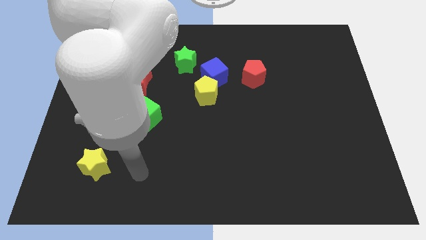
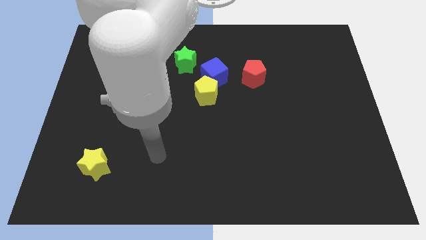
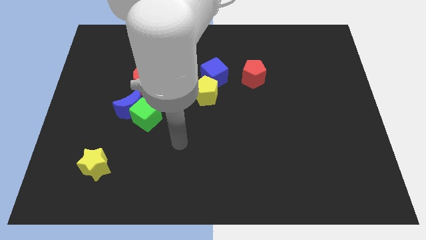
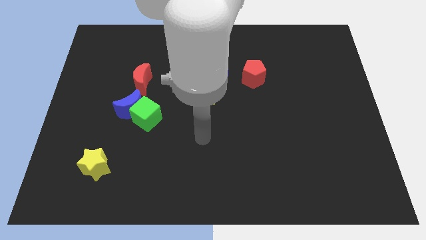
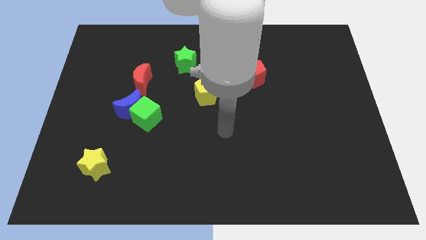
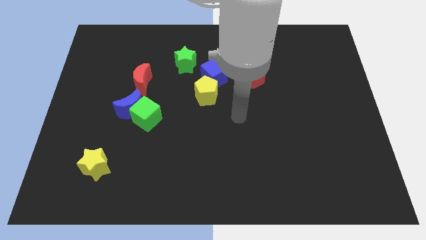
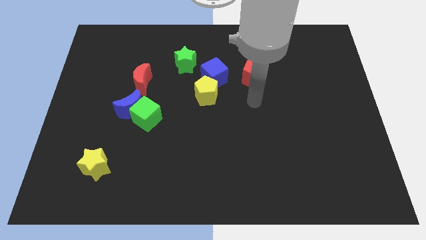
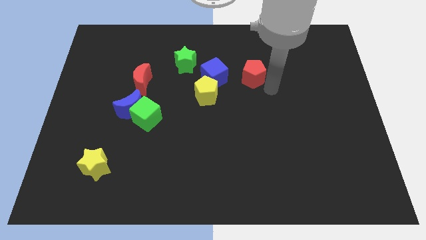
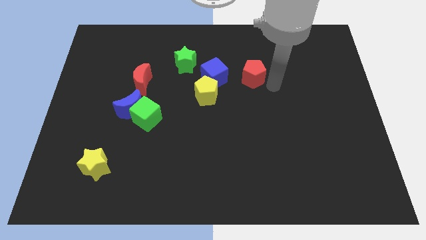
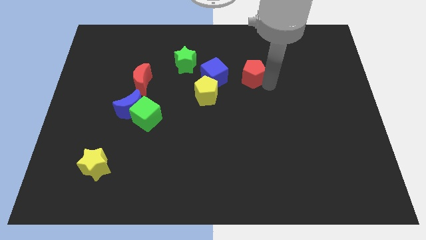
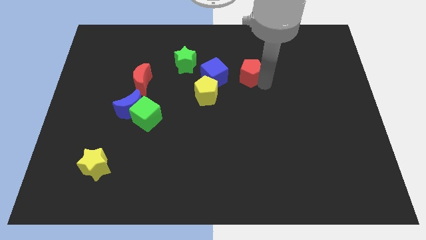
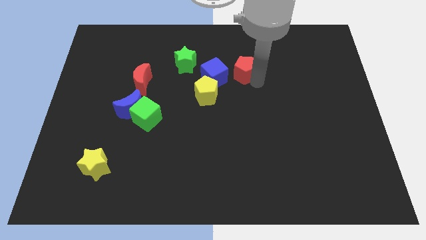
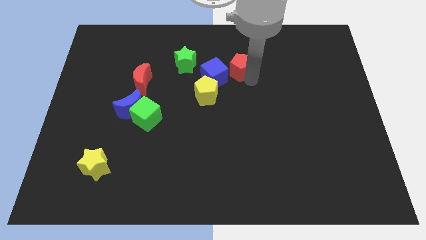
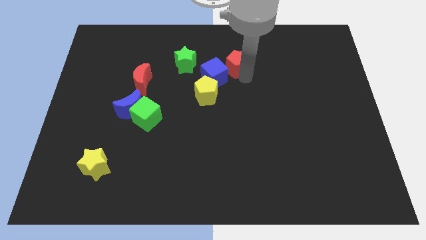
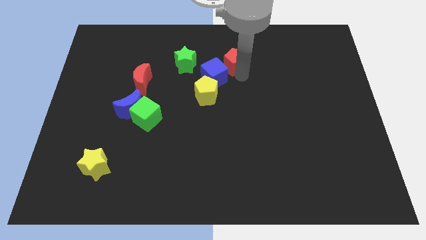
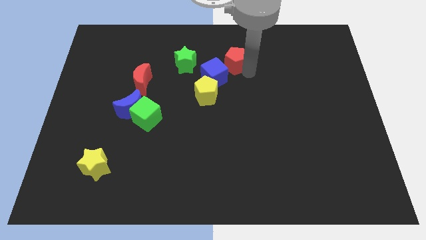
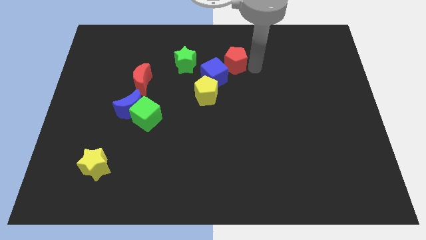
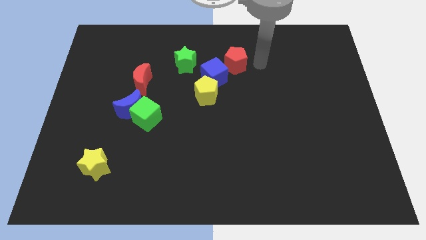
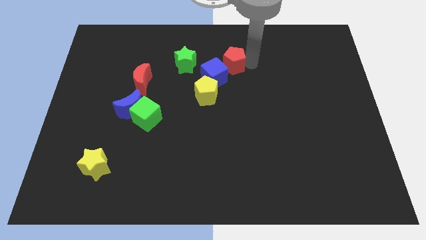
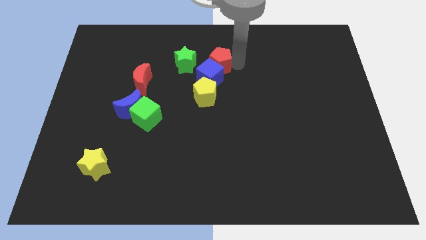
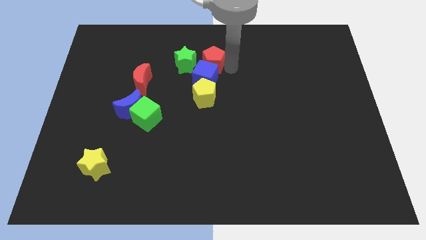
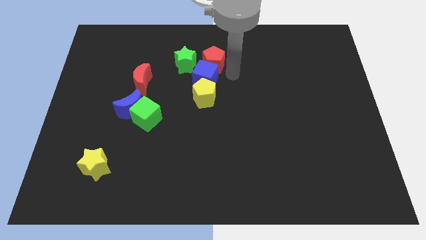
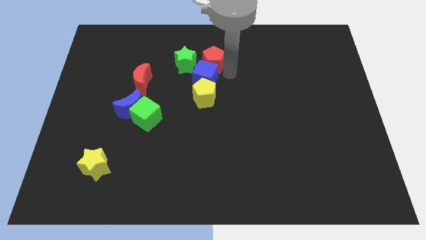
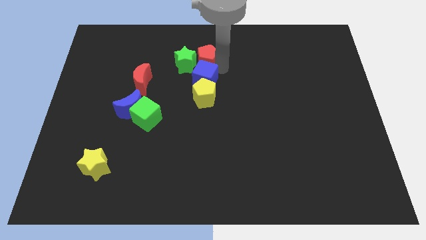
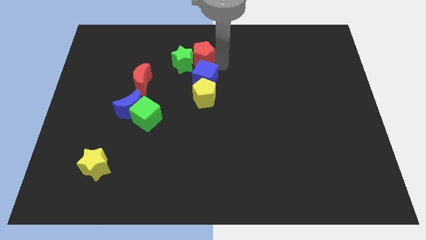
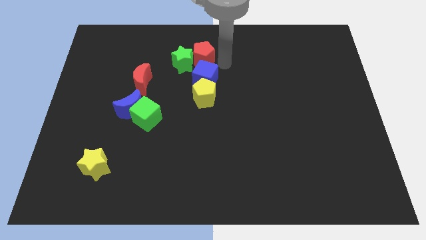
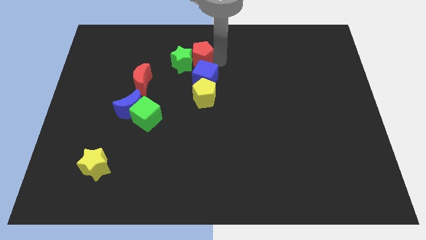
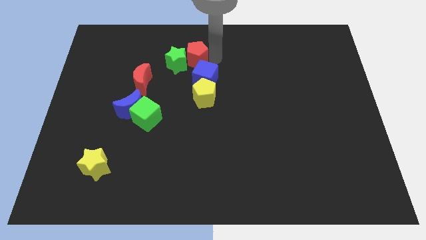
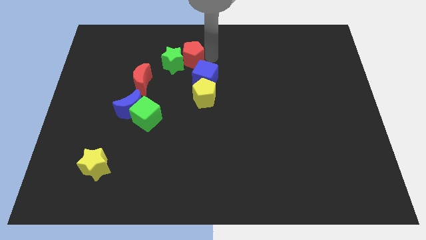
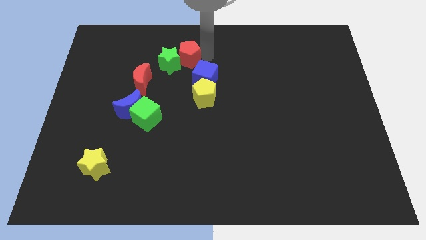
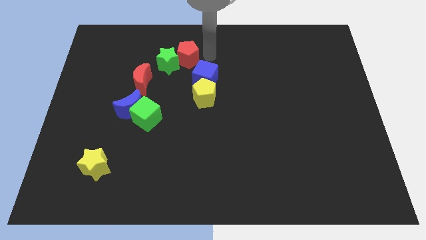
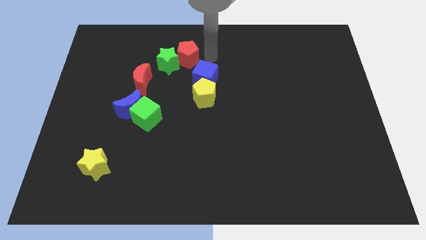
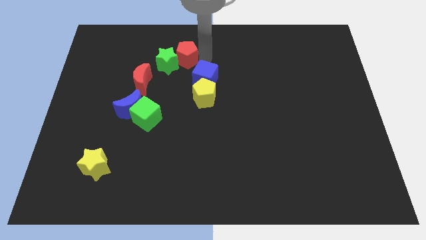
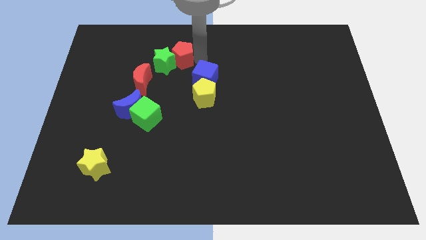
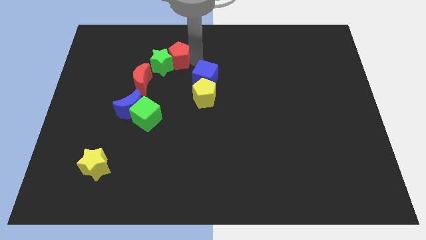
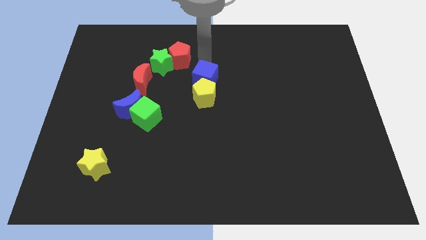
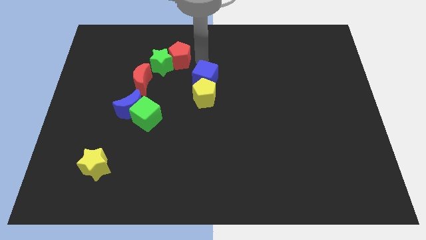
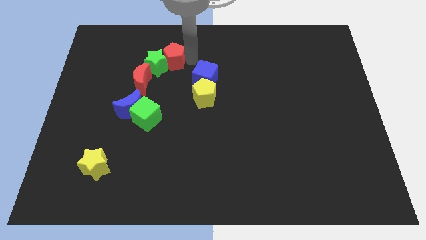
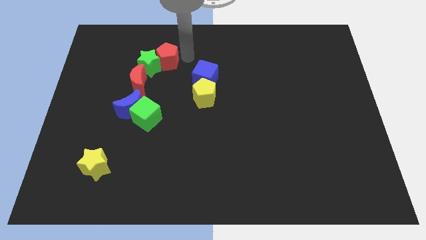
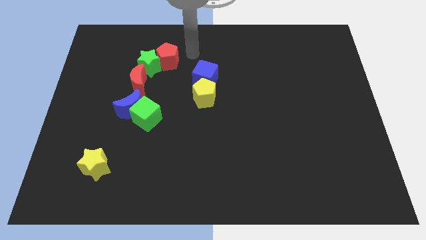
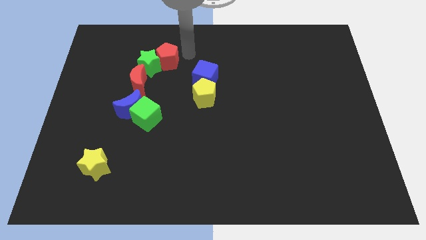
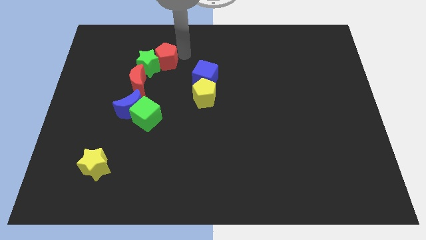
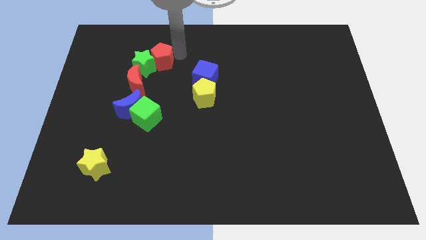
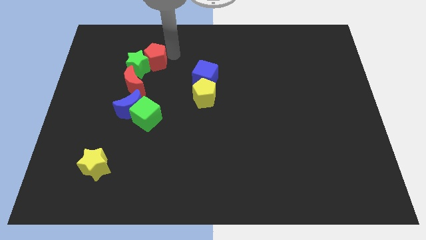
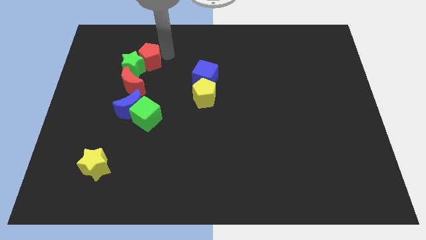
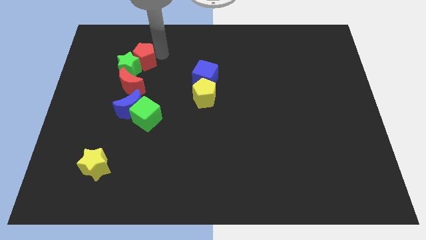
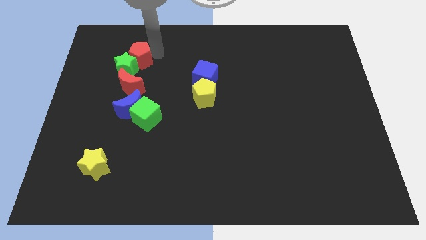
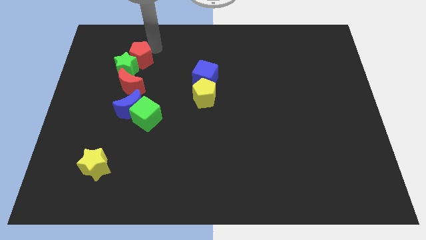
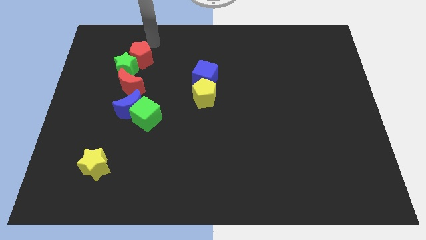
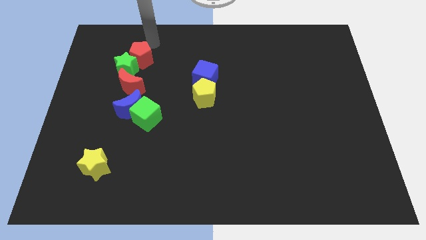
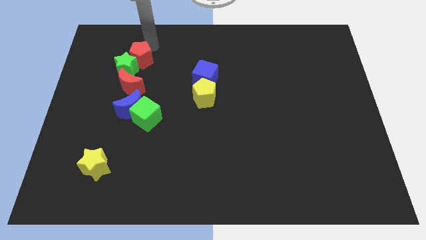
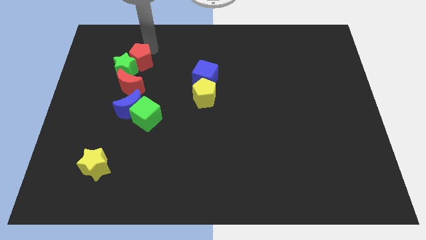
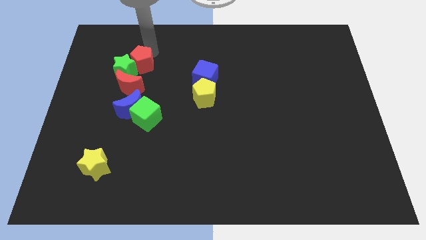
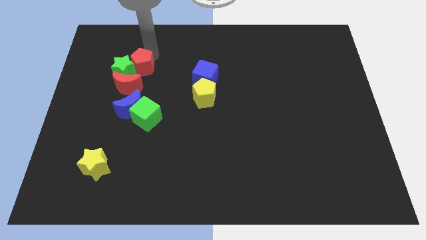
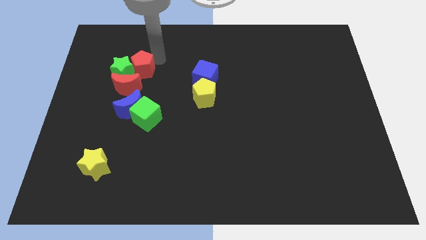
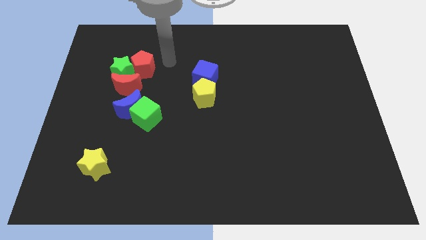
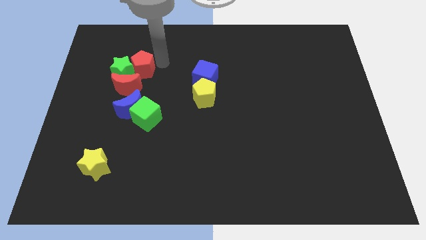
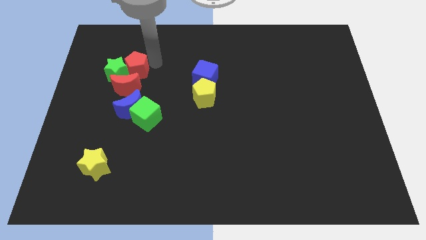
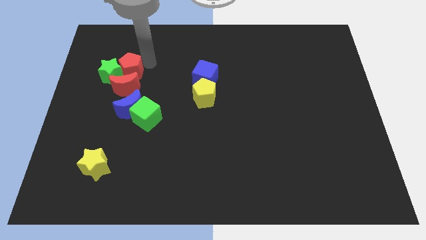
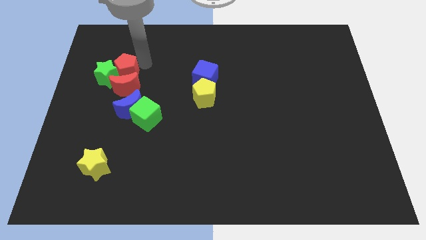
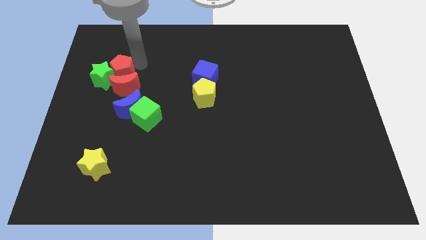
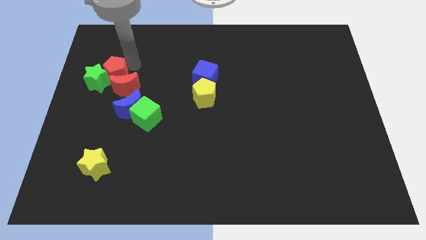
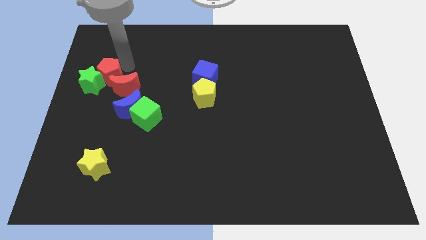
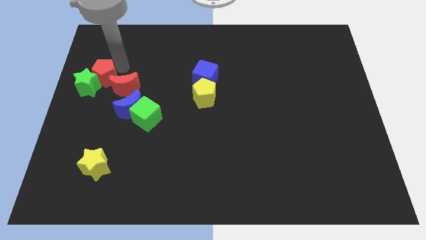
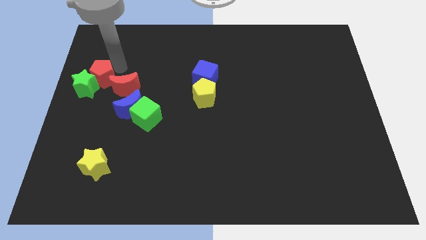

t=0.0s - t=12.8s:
put the red pentagon to the center left

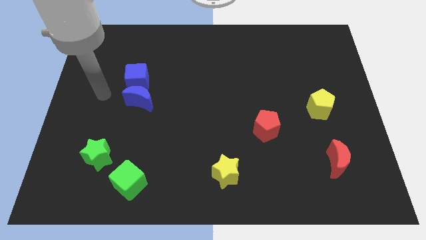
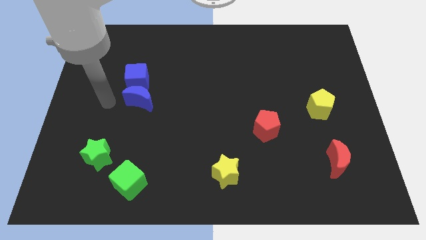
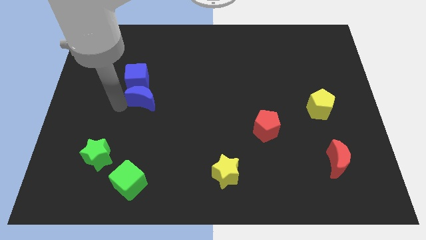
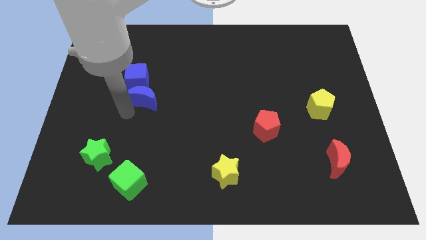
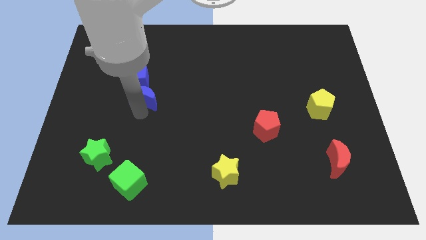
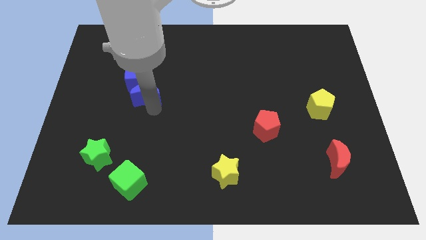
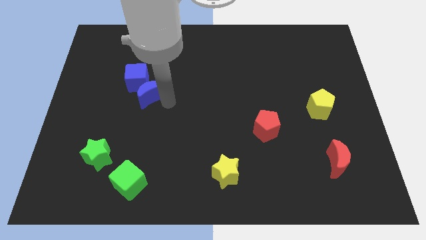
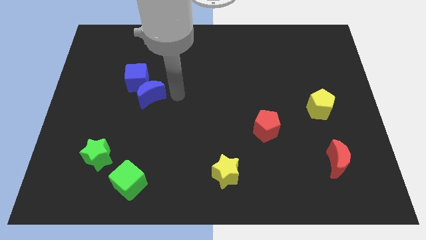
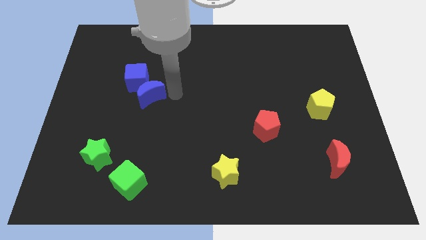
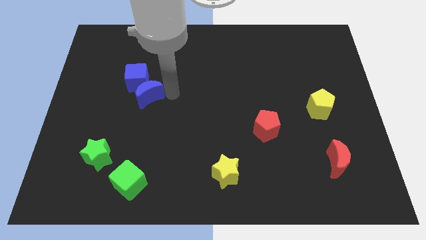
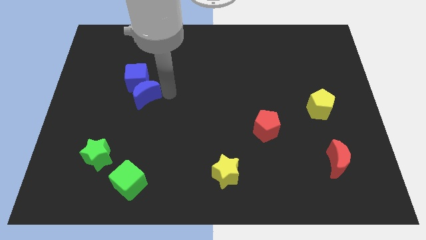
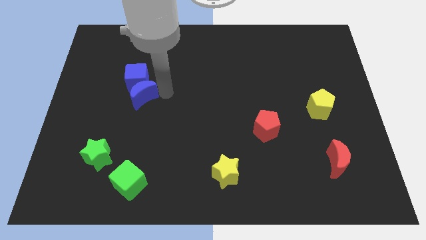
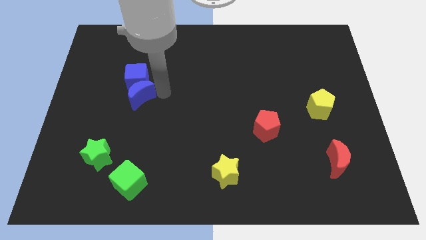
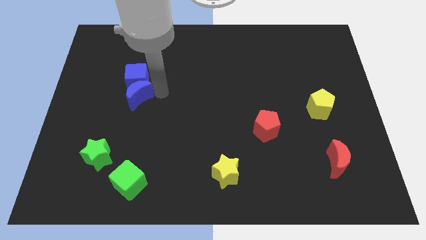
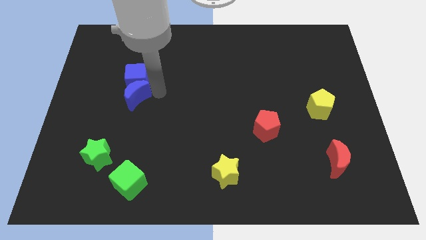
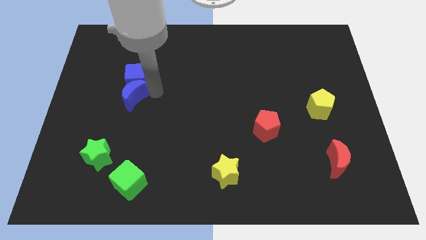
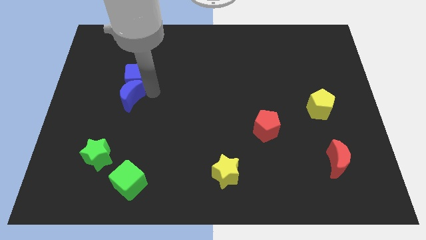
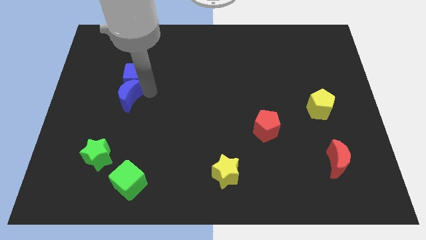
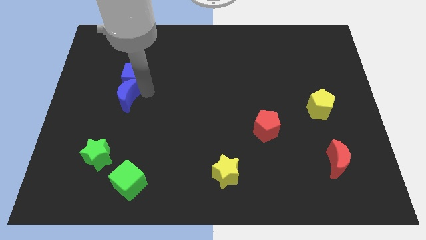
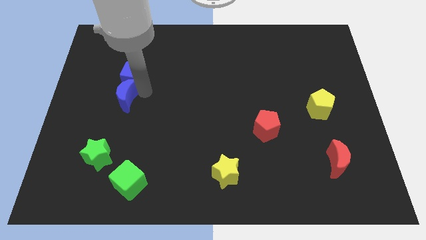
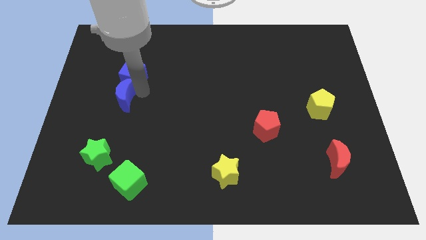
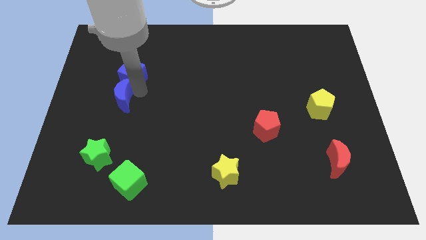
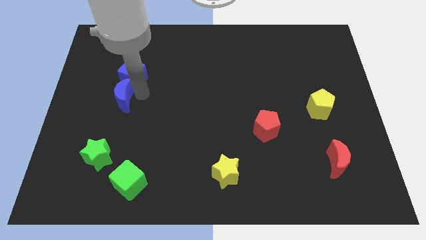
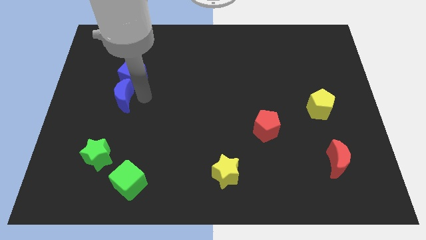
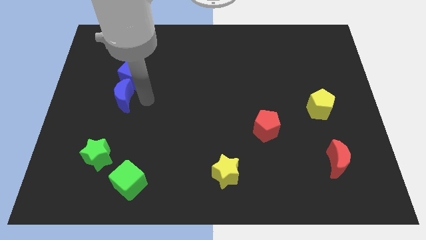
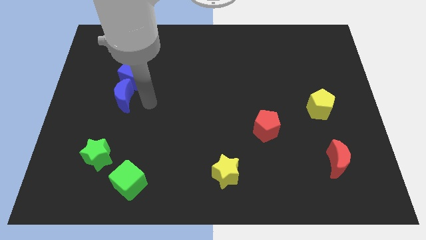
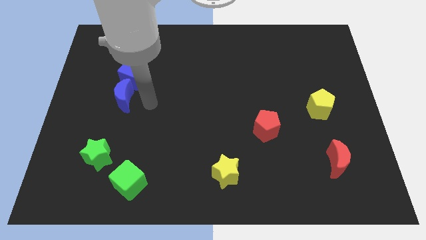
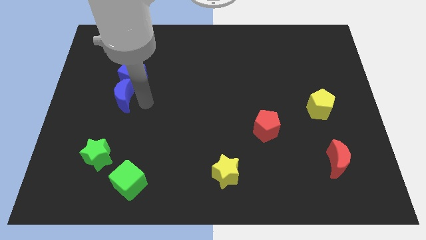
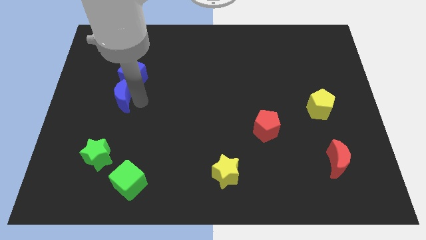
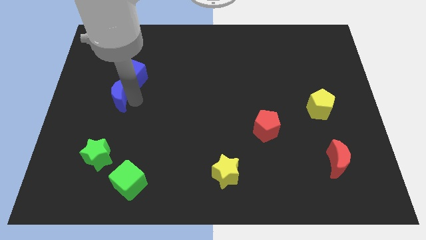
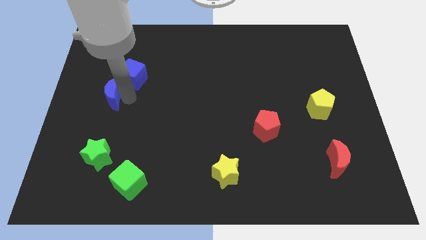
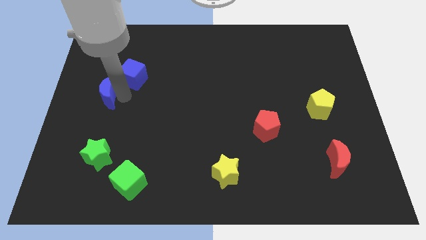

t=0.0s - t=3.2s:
put the blue moon to the left side of the board
